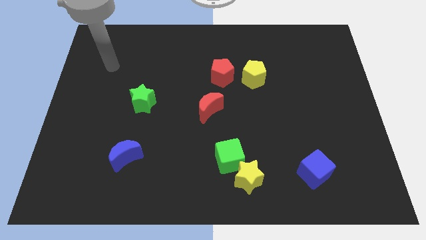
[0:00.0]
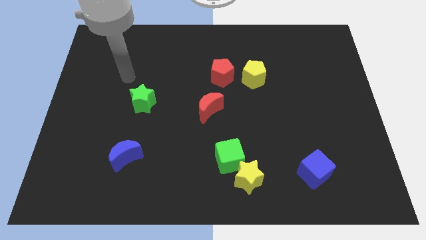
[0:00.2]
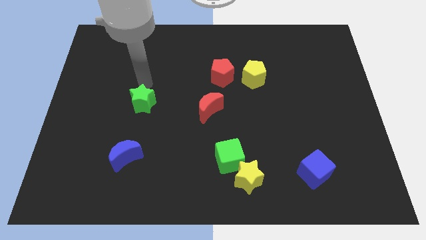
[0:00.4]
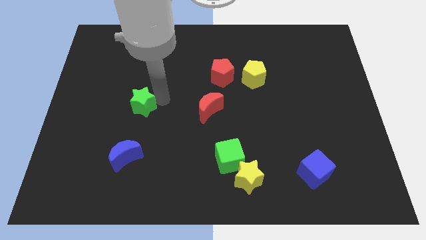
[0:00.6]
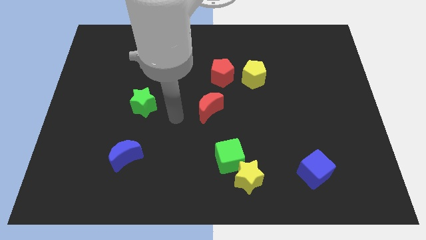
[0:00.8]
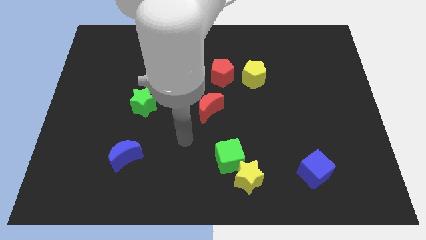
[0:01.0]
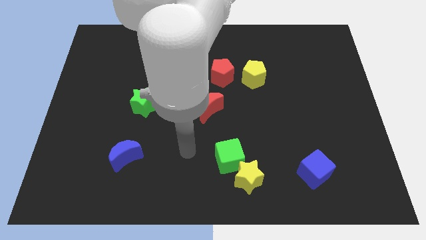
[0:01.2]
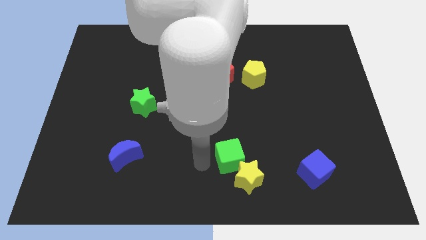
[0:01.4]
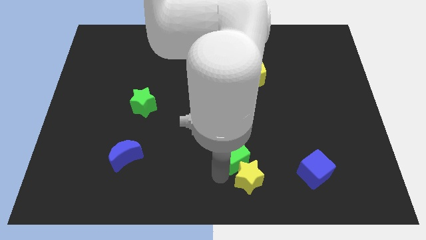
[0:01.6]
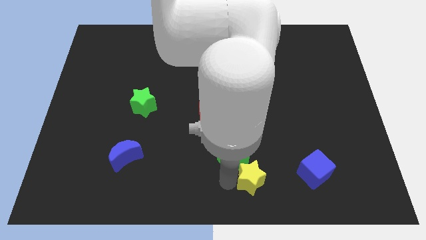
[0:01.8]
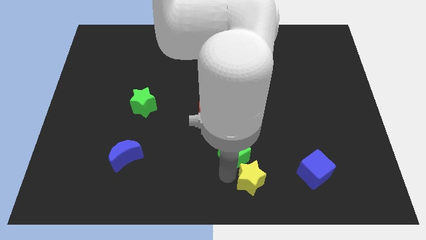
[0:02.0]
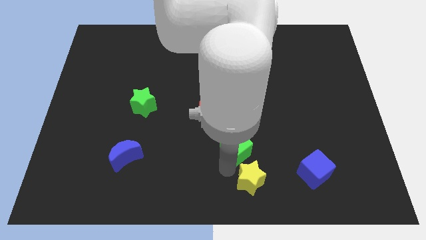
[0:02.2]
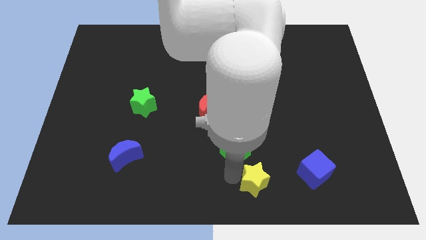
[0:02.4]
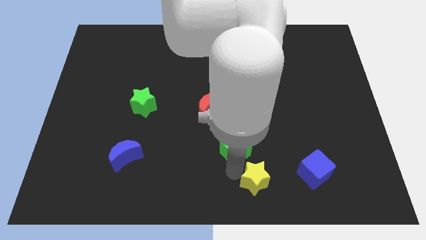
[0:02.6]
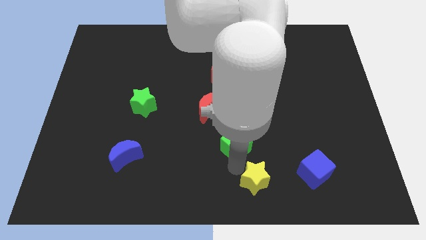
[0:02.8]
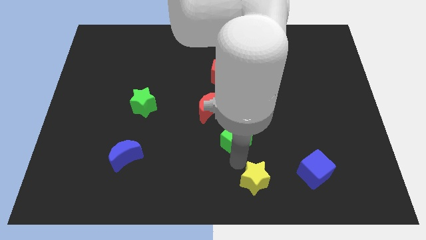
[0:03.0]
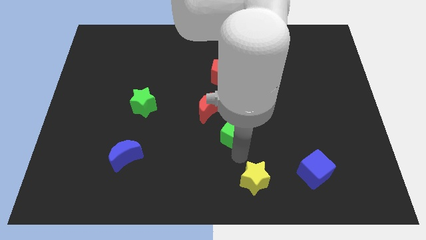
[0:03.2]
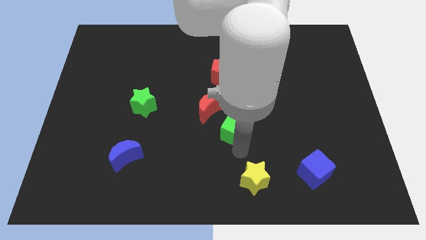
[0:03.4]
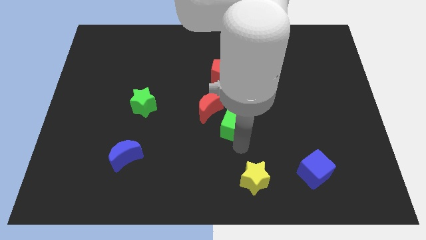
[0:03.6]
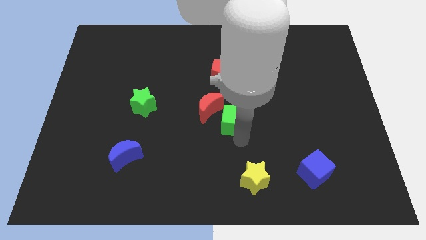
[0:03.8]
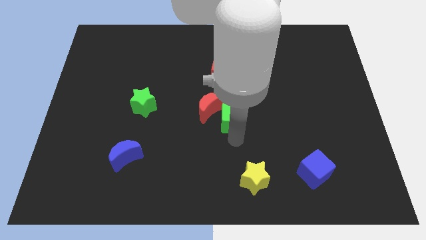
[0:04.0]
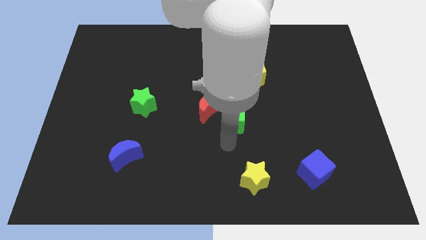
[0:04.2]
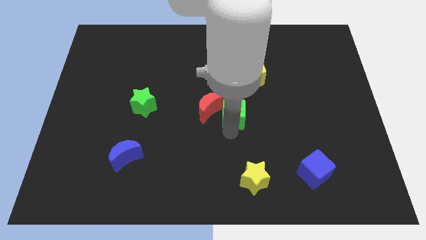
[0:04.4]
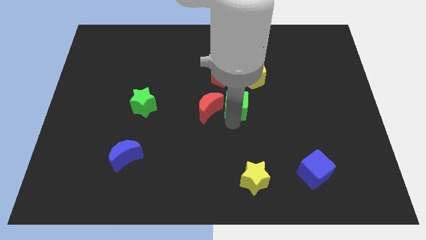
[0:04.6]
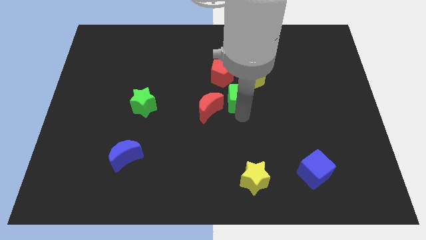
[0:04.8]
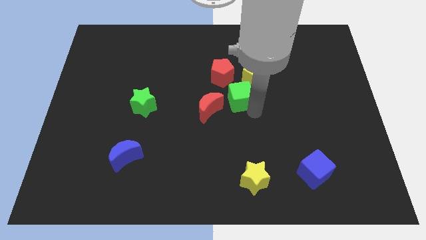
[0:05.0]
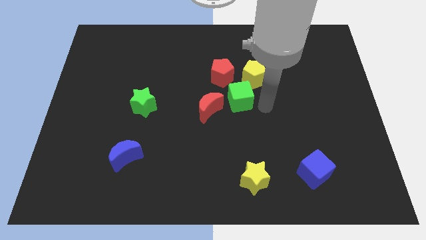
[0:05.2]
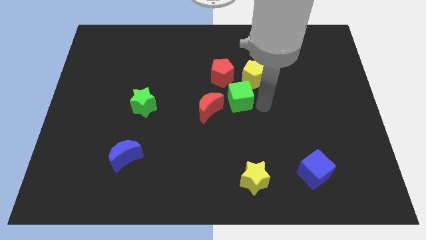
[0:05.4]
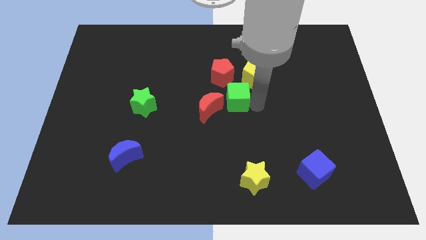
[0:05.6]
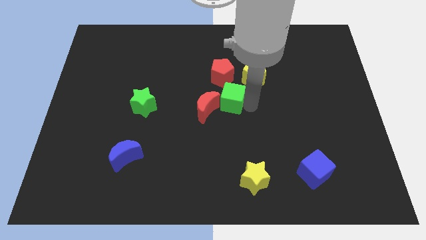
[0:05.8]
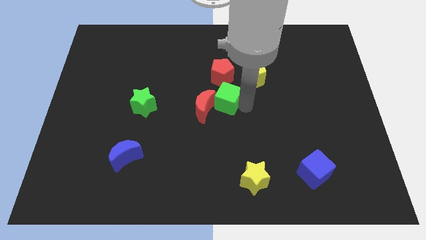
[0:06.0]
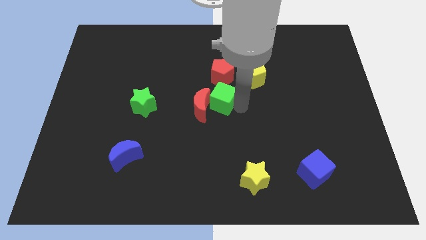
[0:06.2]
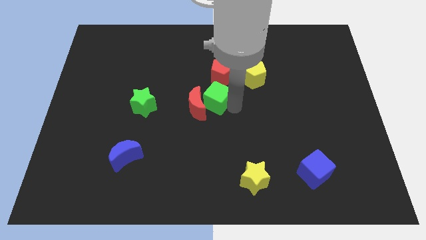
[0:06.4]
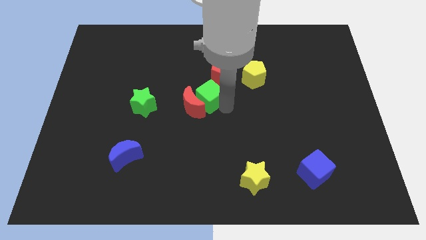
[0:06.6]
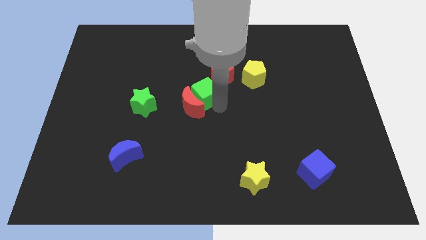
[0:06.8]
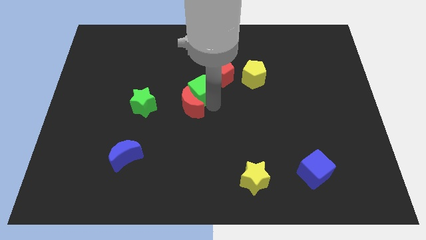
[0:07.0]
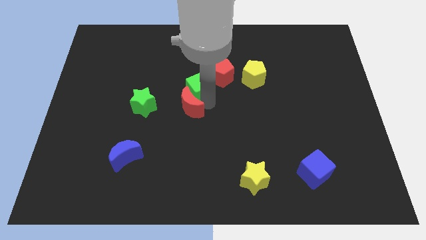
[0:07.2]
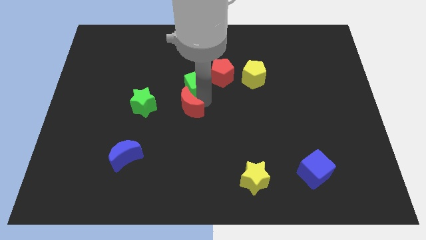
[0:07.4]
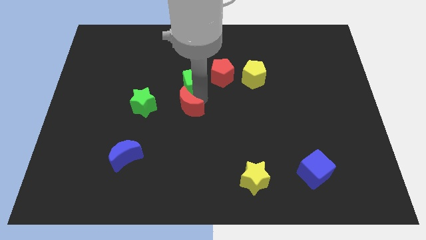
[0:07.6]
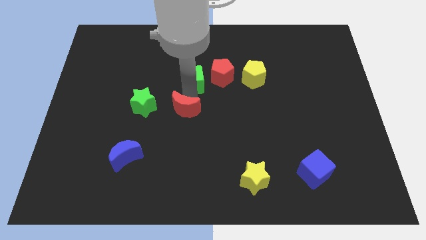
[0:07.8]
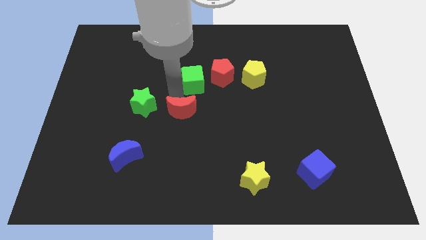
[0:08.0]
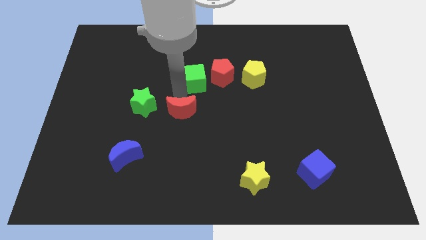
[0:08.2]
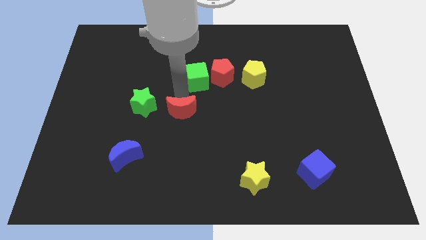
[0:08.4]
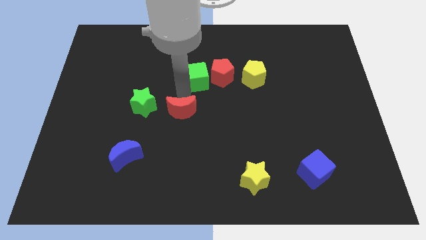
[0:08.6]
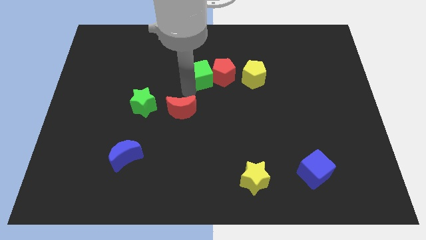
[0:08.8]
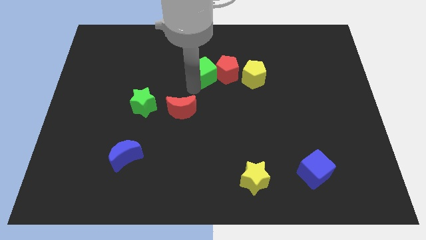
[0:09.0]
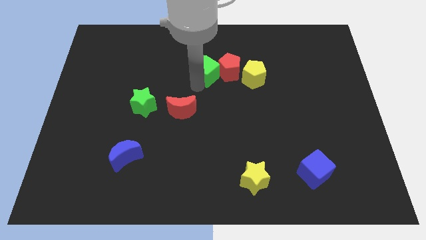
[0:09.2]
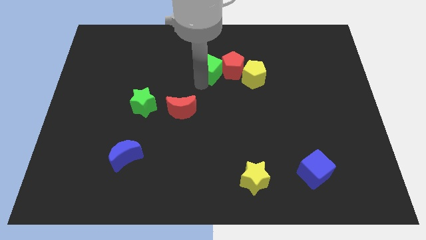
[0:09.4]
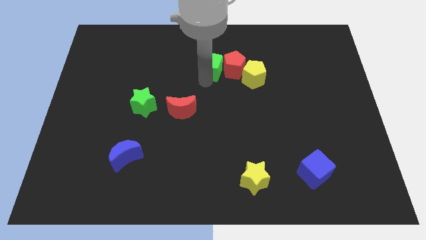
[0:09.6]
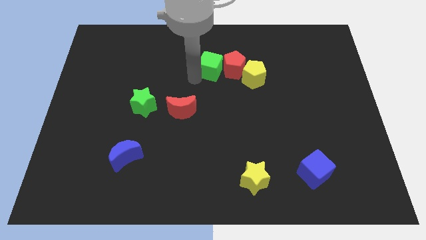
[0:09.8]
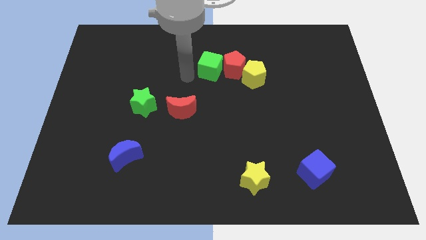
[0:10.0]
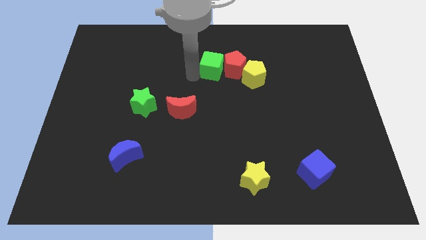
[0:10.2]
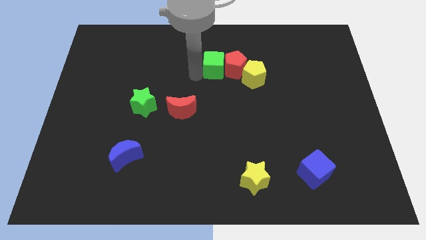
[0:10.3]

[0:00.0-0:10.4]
put the green cube diagonally up and to the left of the yellow pentagon
